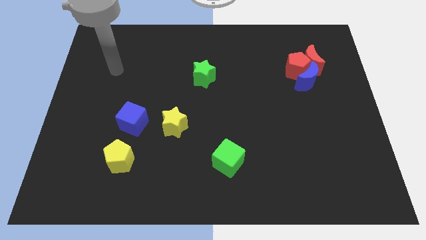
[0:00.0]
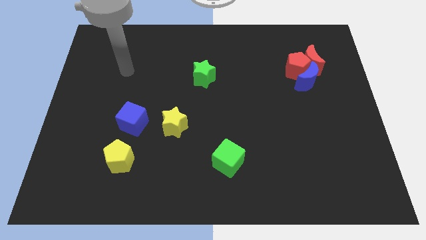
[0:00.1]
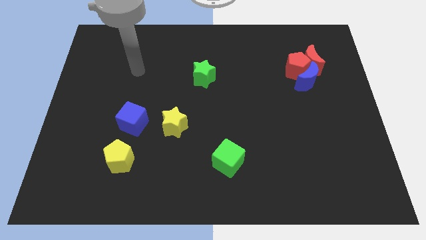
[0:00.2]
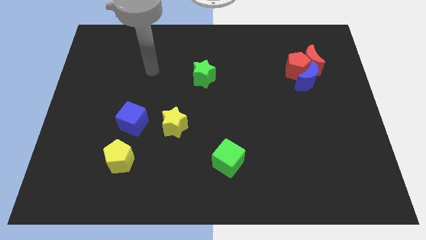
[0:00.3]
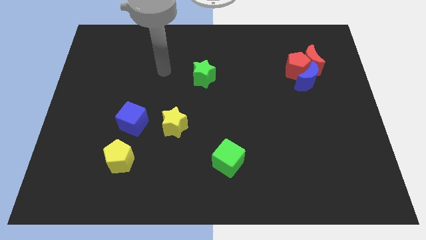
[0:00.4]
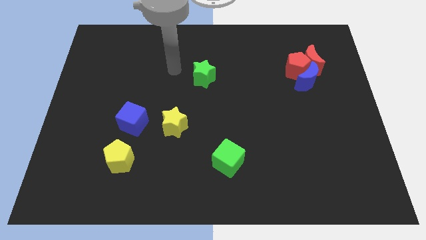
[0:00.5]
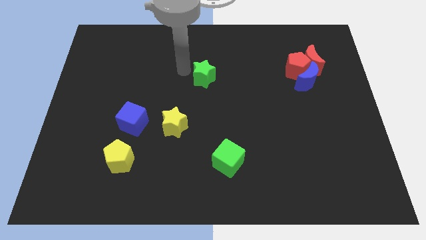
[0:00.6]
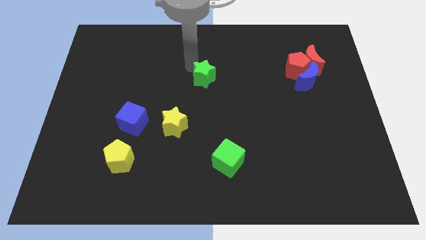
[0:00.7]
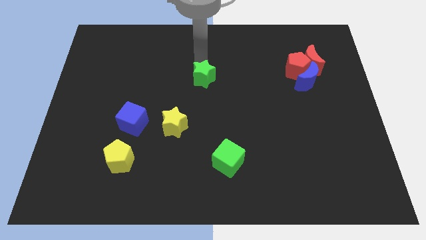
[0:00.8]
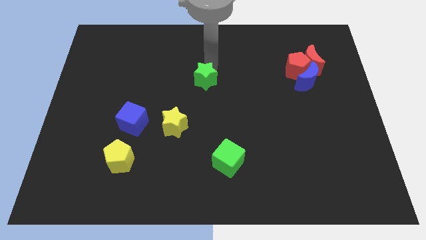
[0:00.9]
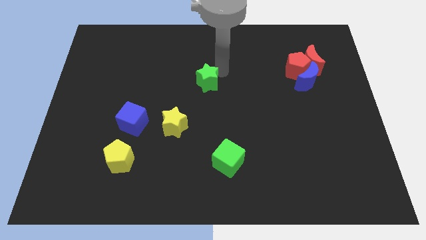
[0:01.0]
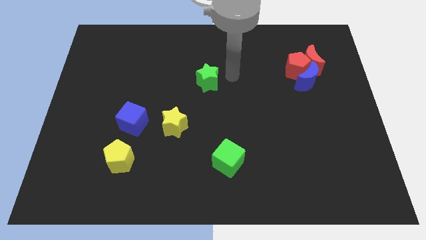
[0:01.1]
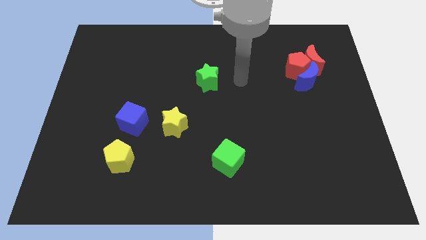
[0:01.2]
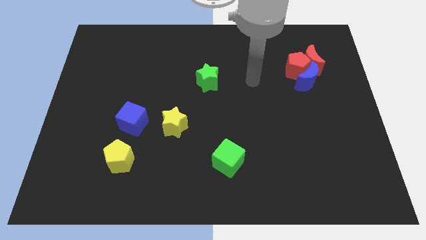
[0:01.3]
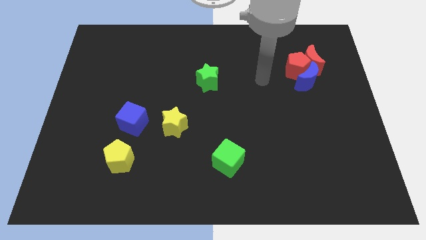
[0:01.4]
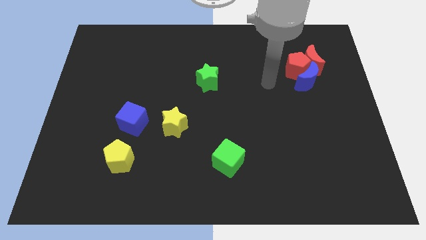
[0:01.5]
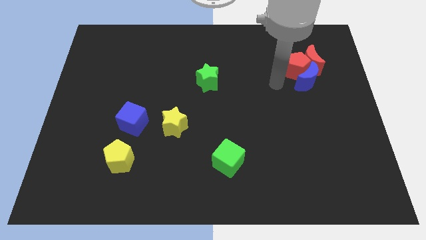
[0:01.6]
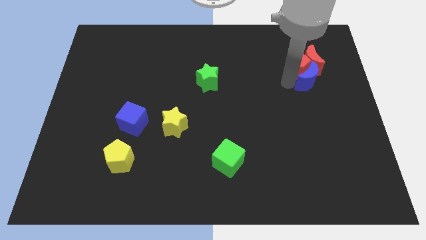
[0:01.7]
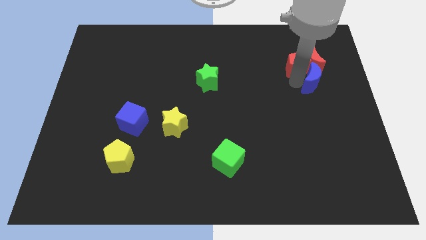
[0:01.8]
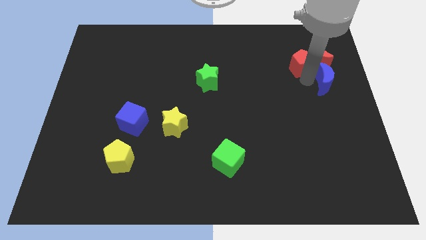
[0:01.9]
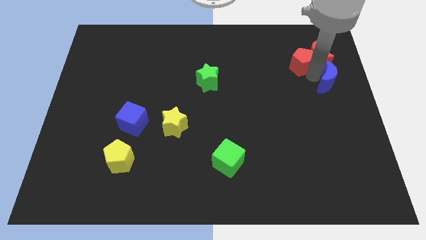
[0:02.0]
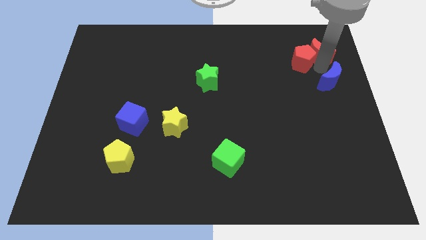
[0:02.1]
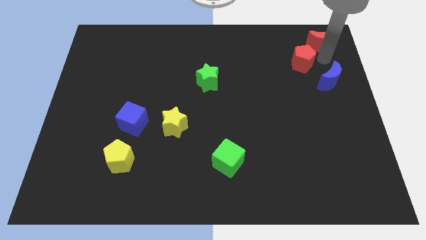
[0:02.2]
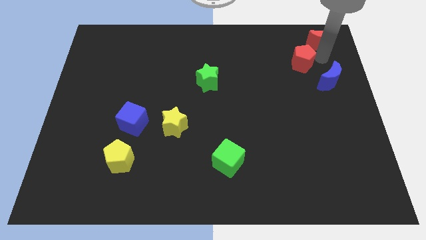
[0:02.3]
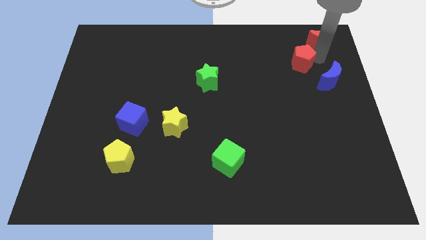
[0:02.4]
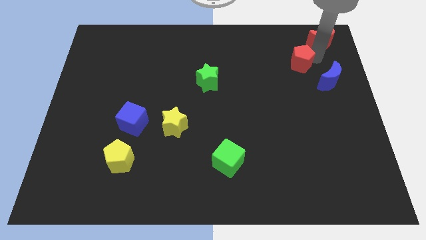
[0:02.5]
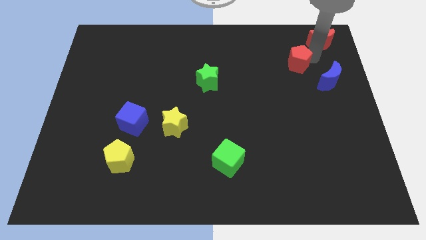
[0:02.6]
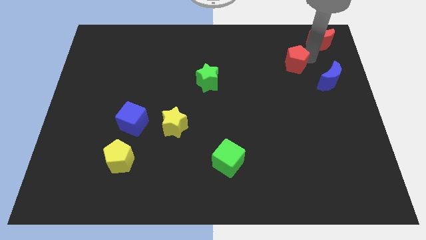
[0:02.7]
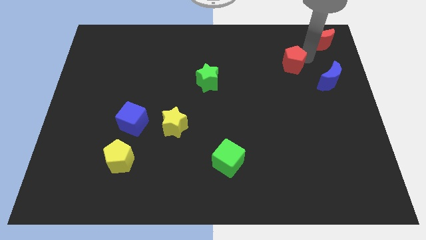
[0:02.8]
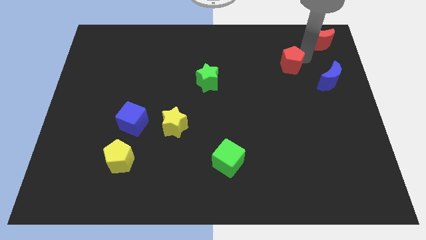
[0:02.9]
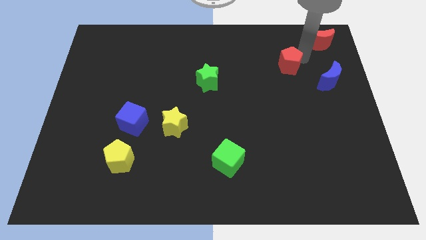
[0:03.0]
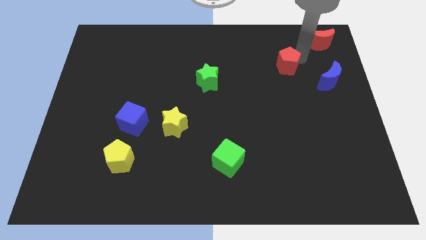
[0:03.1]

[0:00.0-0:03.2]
pull the red pentagon apart from the red moon and blue moon

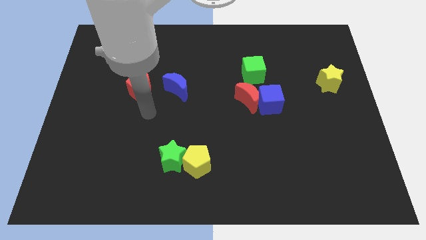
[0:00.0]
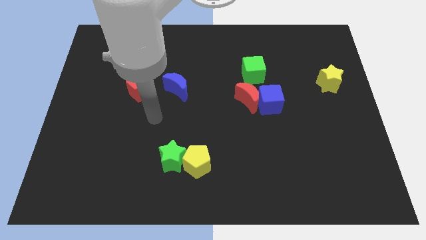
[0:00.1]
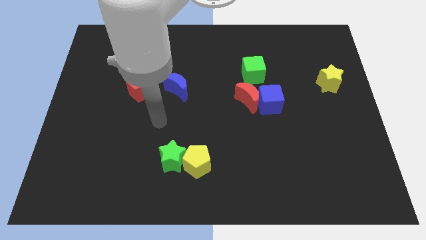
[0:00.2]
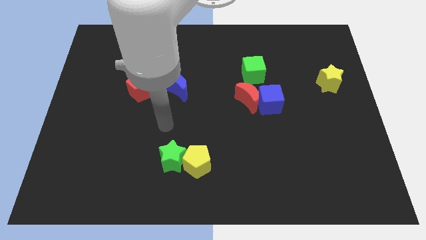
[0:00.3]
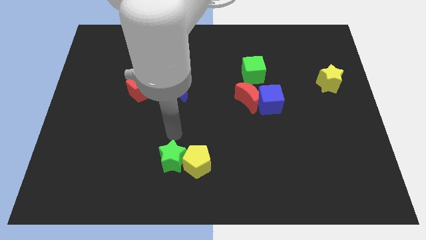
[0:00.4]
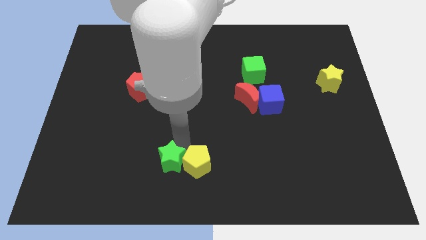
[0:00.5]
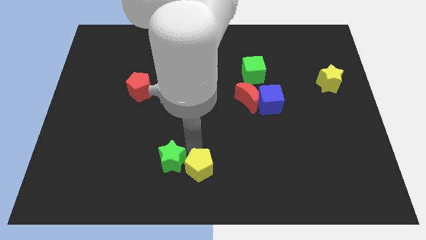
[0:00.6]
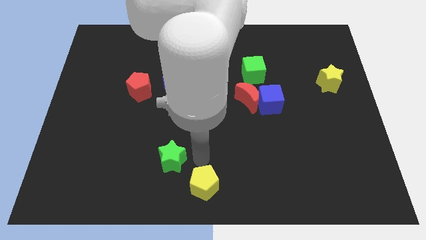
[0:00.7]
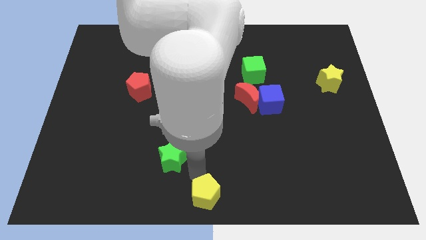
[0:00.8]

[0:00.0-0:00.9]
move the green star away from the yellow pentagon

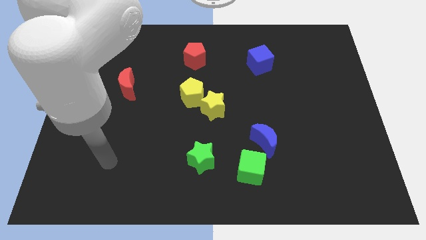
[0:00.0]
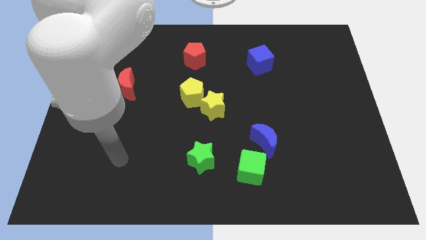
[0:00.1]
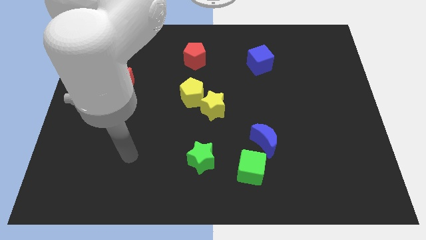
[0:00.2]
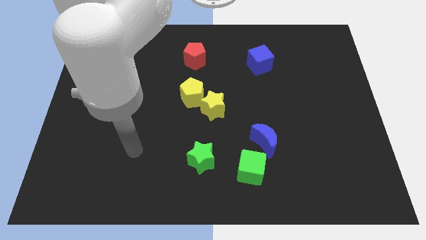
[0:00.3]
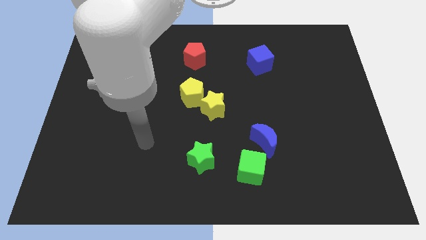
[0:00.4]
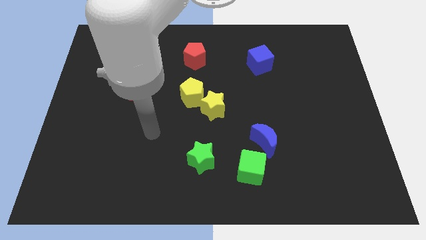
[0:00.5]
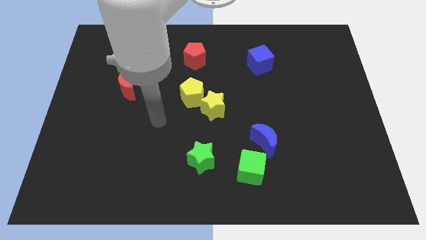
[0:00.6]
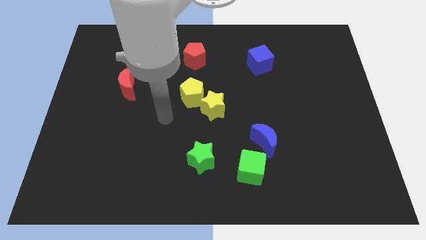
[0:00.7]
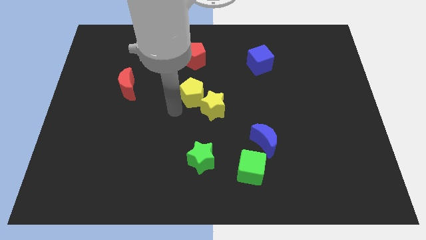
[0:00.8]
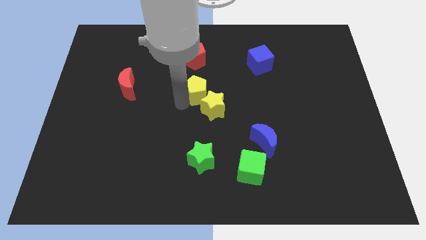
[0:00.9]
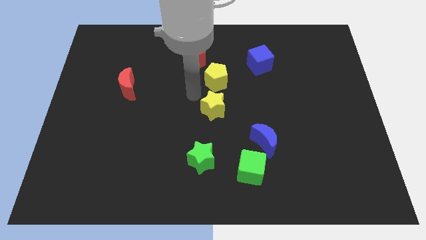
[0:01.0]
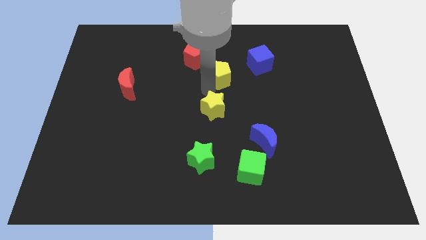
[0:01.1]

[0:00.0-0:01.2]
separate the yellow star from the yellow pentagon

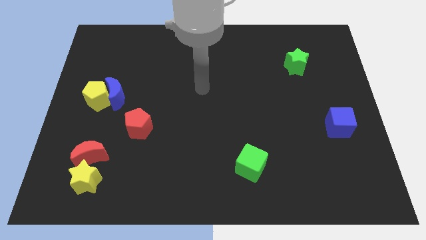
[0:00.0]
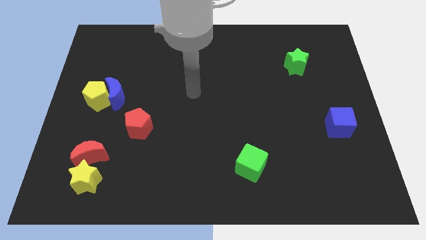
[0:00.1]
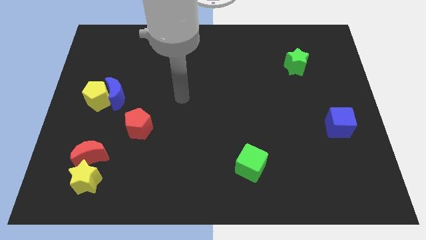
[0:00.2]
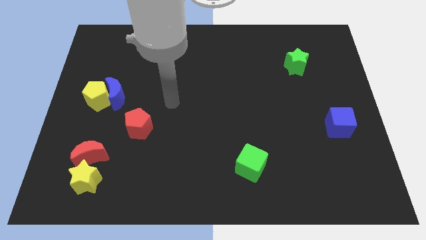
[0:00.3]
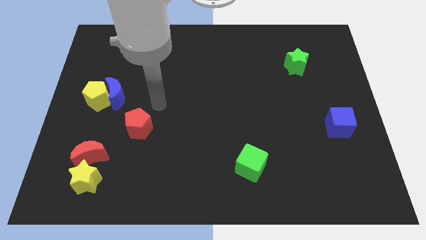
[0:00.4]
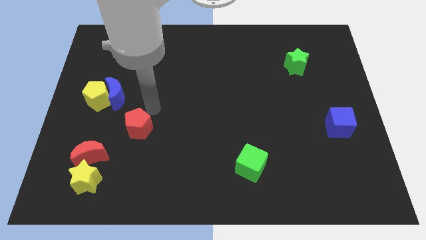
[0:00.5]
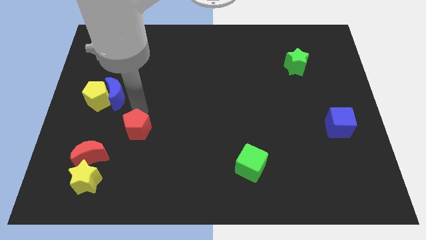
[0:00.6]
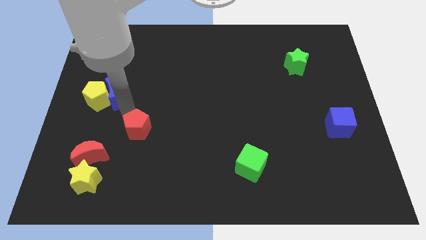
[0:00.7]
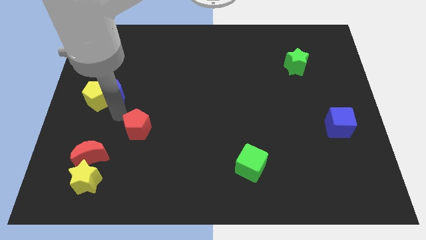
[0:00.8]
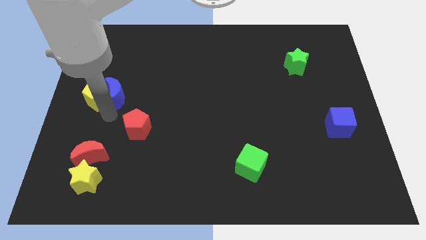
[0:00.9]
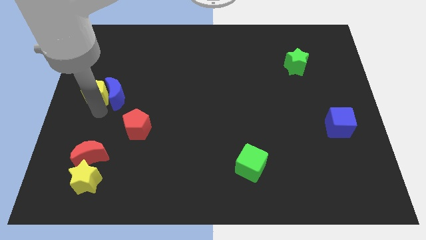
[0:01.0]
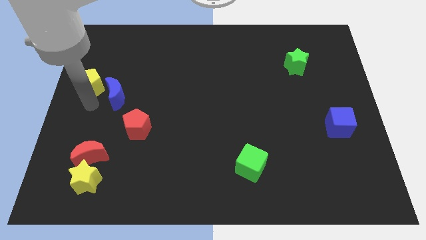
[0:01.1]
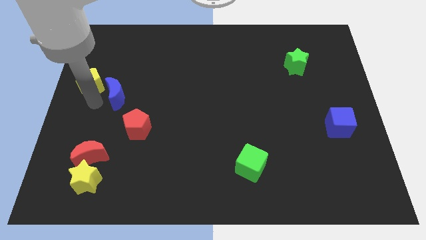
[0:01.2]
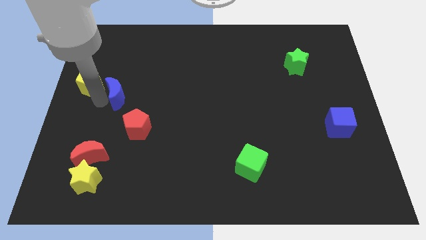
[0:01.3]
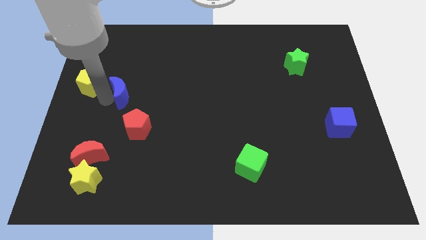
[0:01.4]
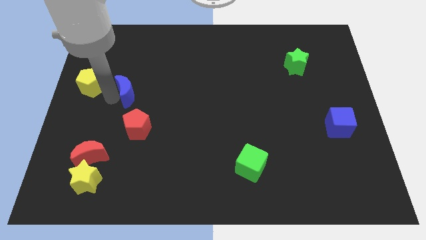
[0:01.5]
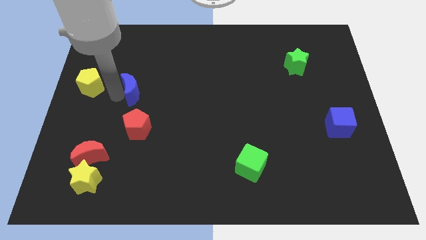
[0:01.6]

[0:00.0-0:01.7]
pull the blue moon apart from the yellow pentagon

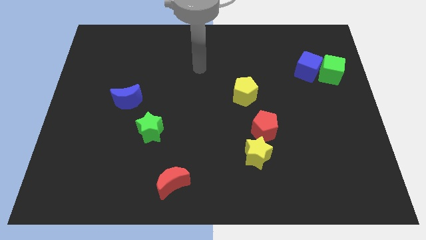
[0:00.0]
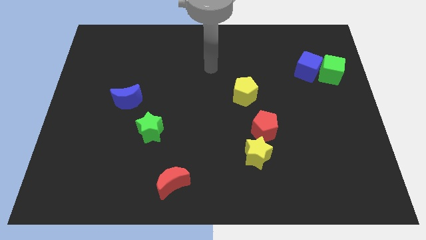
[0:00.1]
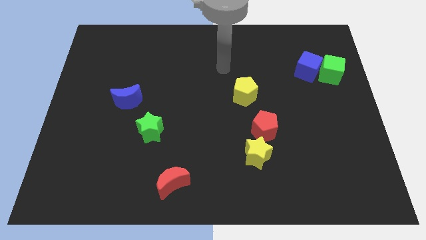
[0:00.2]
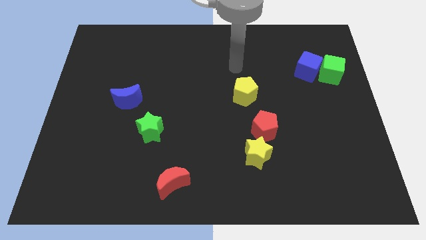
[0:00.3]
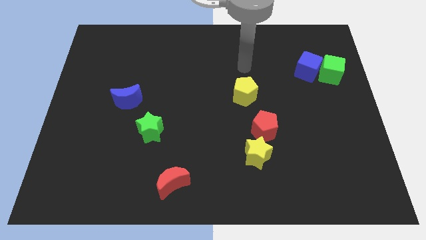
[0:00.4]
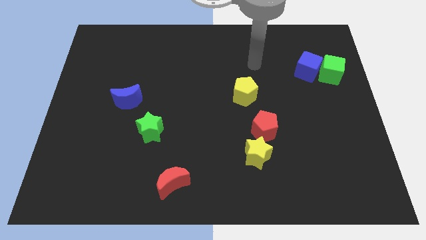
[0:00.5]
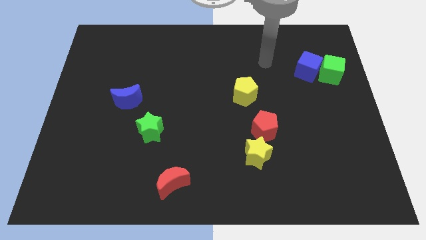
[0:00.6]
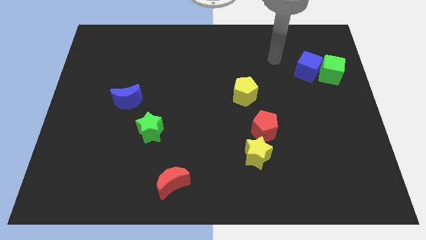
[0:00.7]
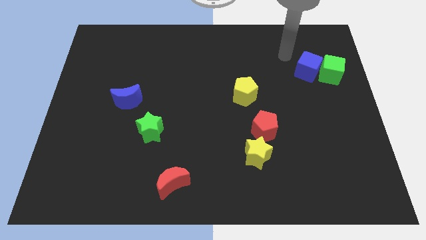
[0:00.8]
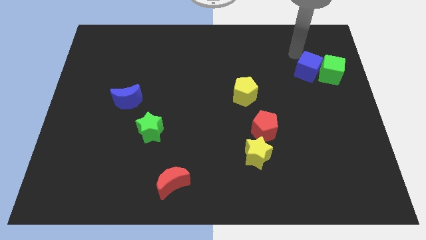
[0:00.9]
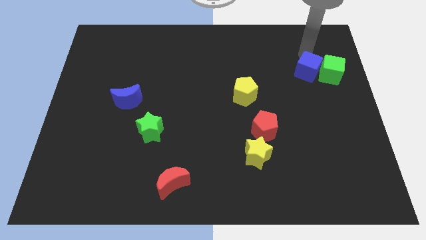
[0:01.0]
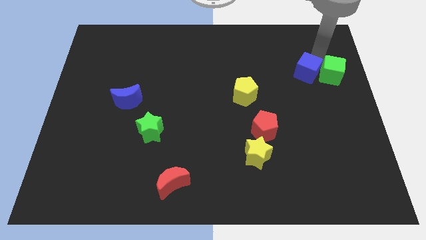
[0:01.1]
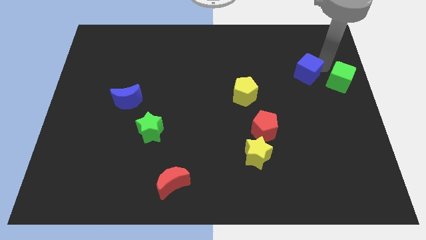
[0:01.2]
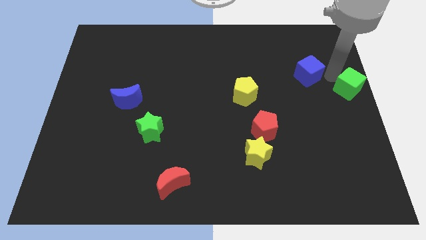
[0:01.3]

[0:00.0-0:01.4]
separate the blue cube from the green cube

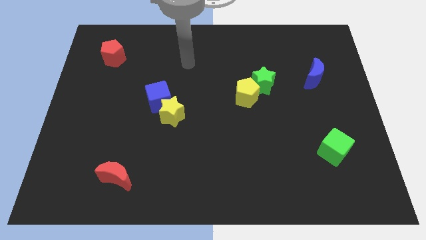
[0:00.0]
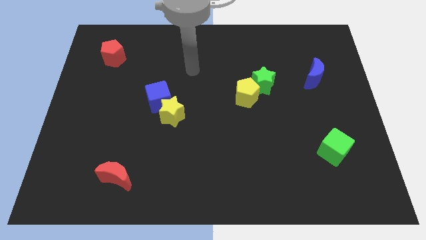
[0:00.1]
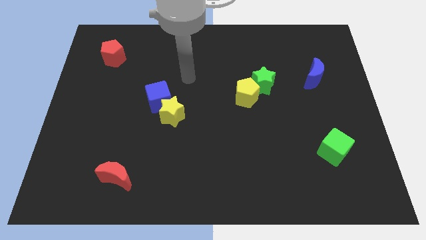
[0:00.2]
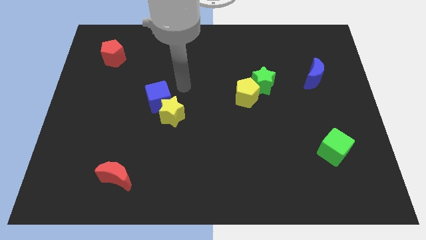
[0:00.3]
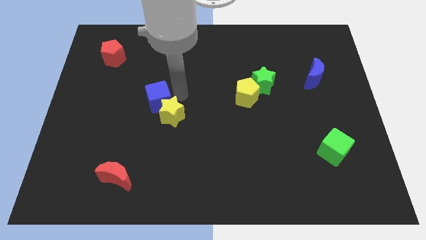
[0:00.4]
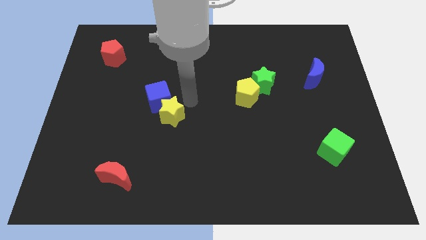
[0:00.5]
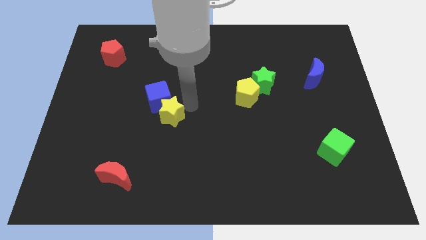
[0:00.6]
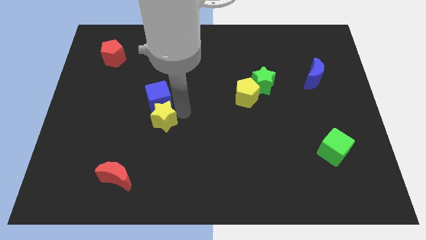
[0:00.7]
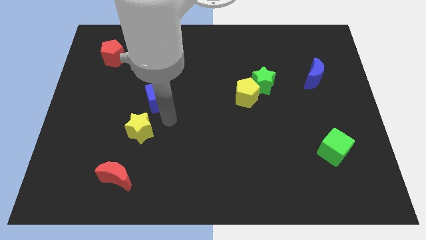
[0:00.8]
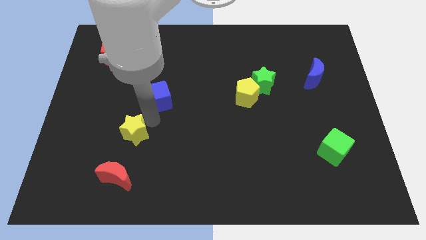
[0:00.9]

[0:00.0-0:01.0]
separate the blue cube from the yellow star
